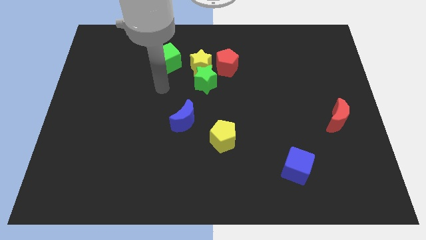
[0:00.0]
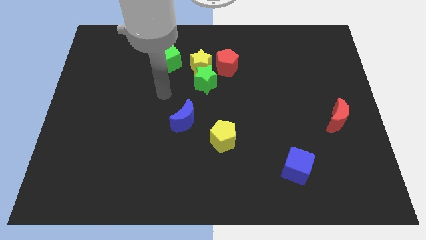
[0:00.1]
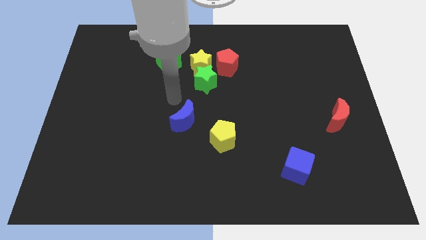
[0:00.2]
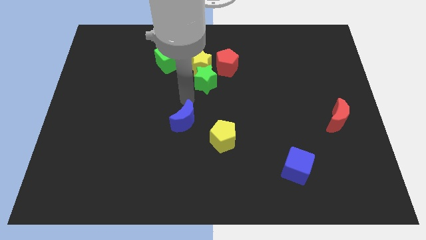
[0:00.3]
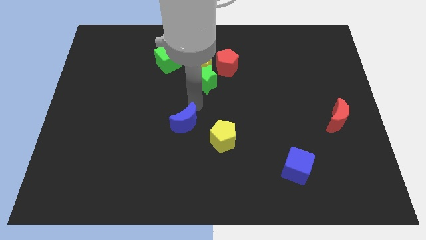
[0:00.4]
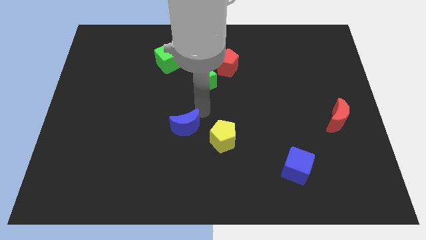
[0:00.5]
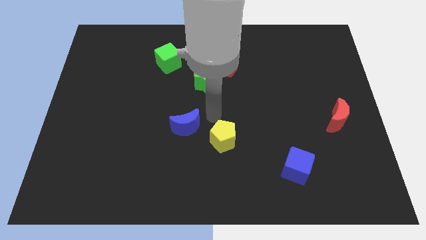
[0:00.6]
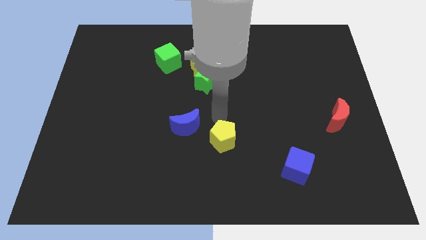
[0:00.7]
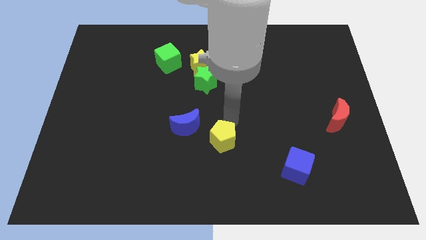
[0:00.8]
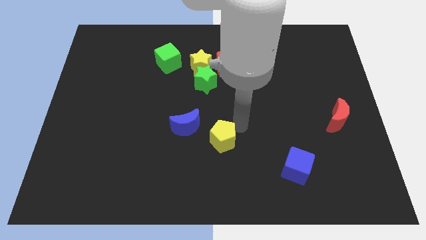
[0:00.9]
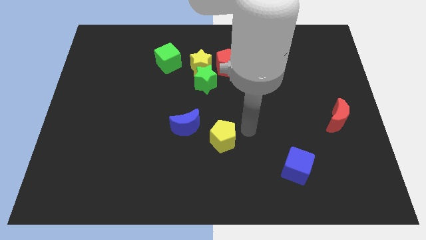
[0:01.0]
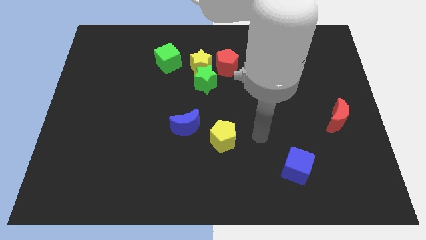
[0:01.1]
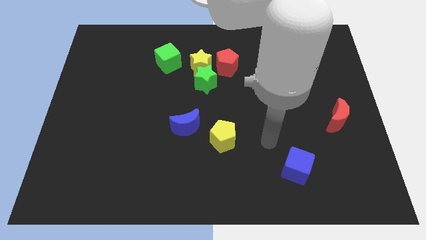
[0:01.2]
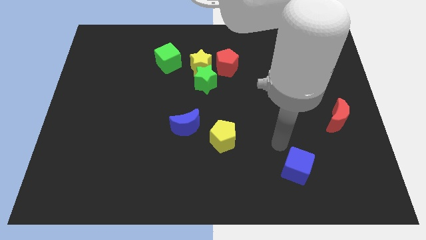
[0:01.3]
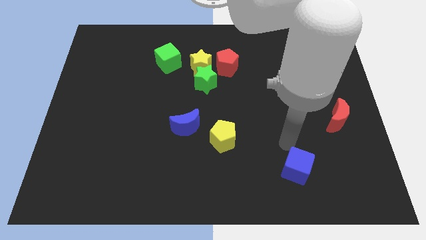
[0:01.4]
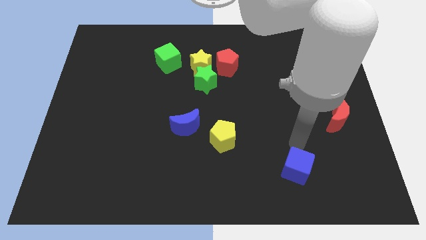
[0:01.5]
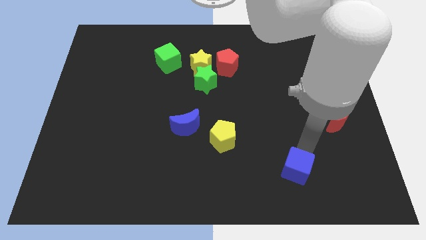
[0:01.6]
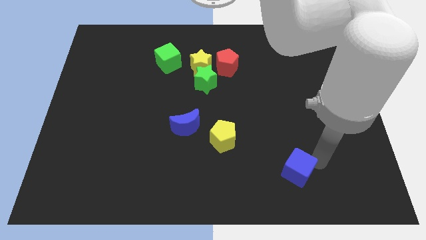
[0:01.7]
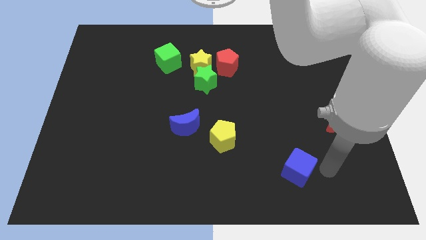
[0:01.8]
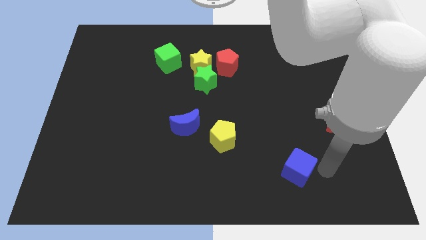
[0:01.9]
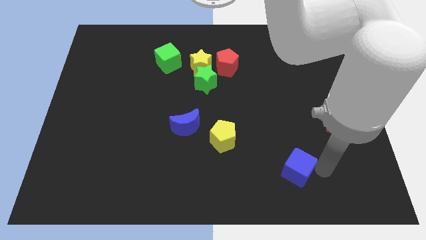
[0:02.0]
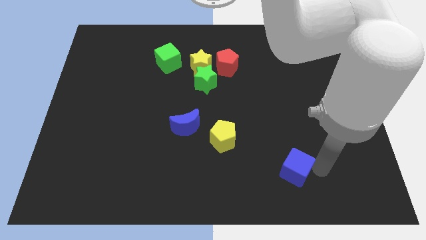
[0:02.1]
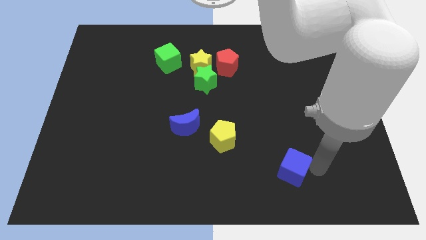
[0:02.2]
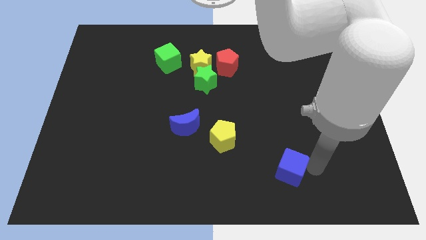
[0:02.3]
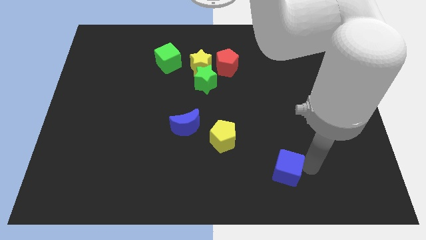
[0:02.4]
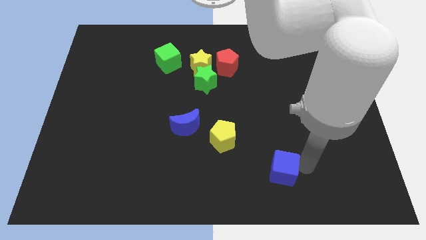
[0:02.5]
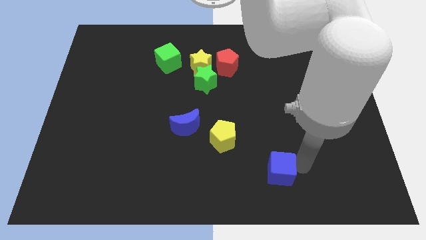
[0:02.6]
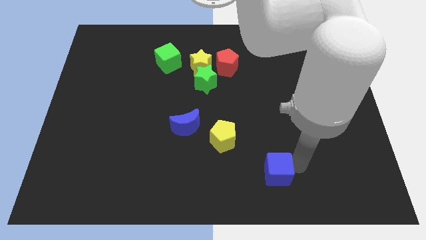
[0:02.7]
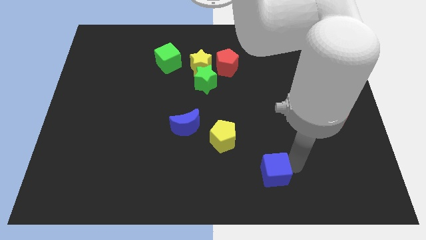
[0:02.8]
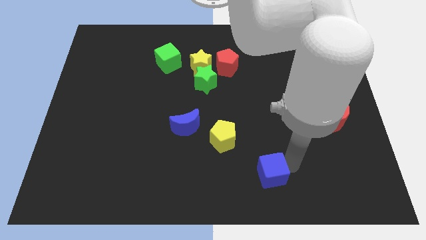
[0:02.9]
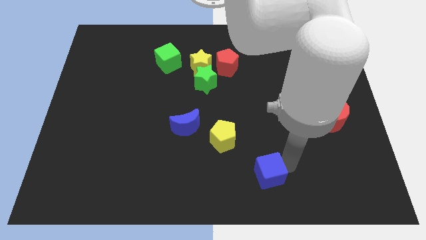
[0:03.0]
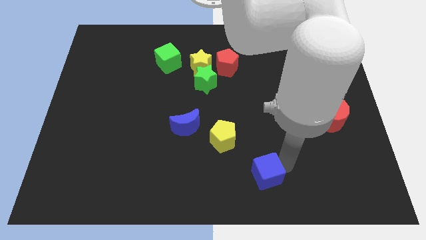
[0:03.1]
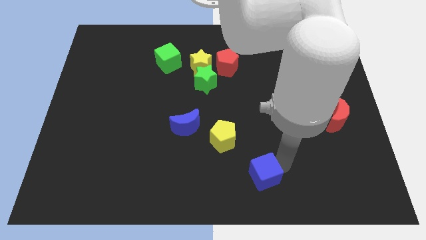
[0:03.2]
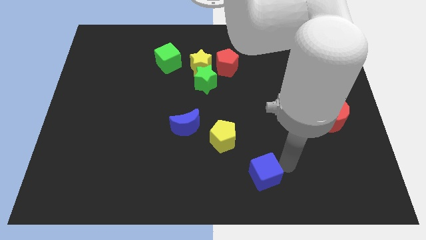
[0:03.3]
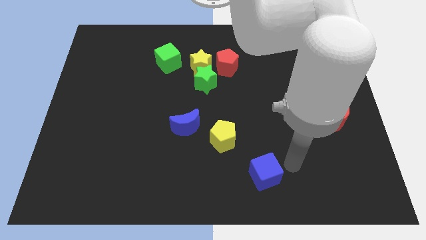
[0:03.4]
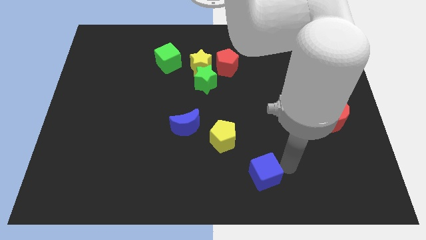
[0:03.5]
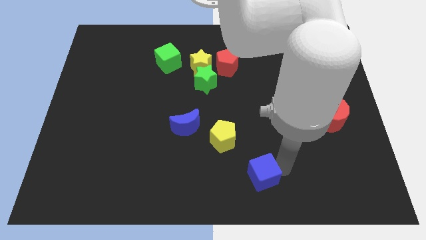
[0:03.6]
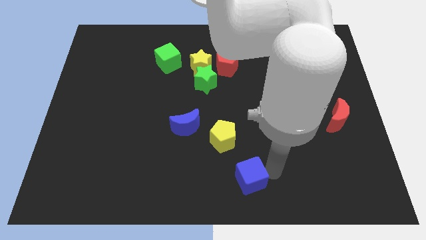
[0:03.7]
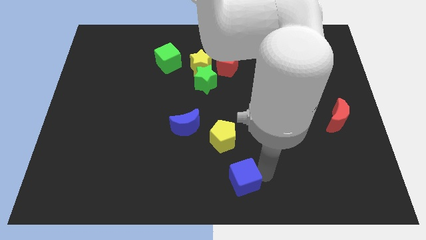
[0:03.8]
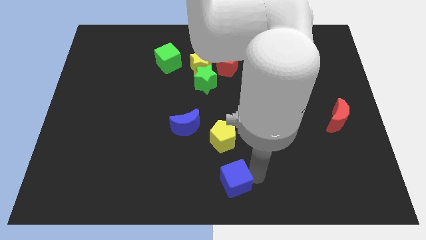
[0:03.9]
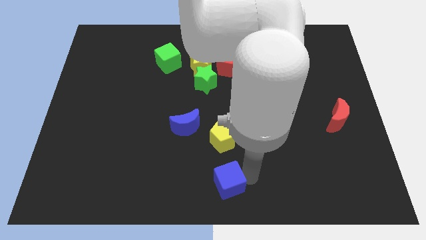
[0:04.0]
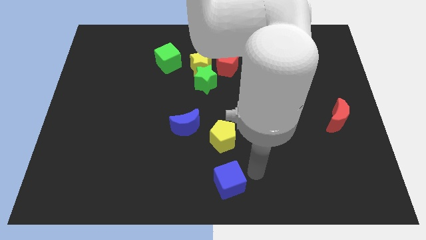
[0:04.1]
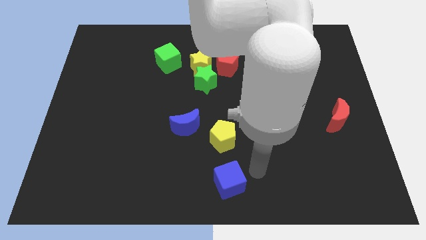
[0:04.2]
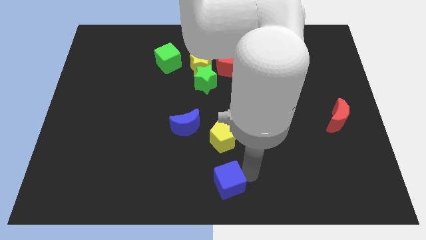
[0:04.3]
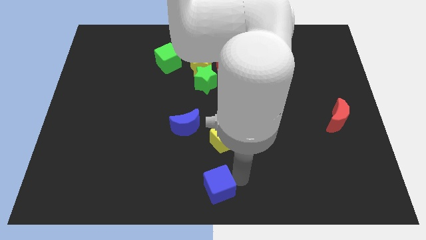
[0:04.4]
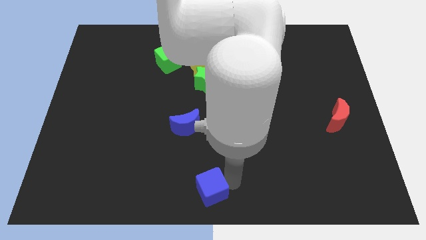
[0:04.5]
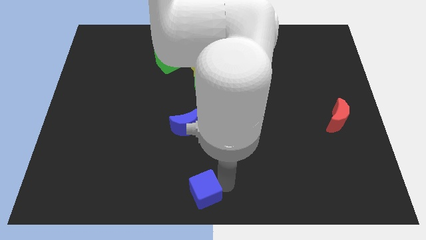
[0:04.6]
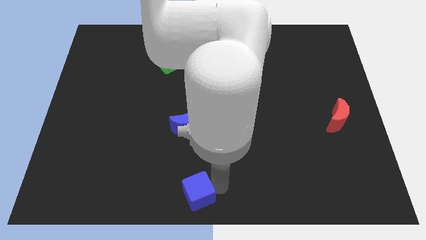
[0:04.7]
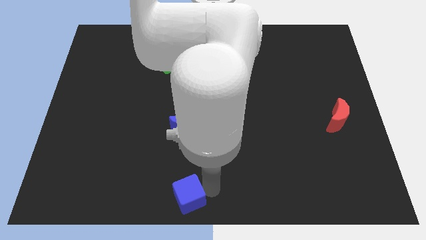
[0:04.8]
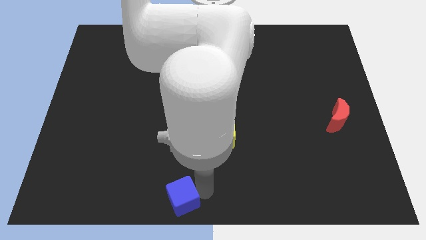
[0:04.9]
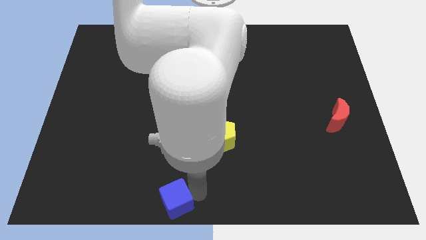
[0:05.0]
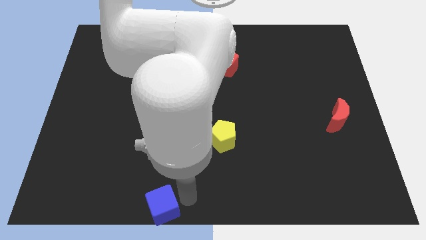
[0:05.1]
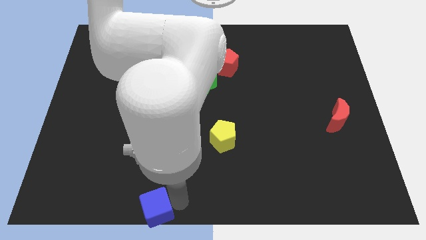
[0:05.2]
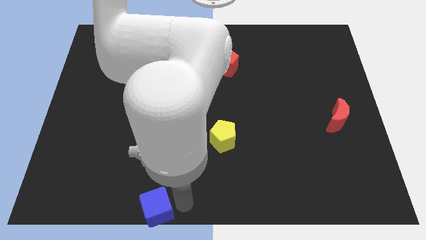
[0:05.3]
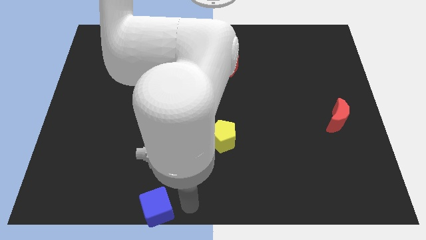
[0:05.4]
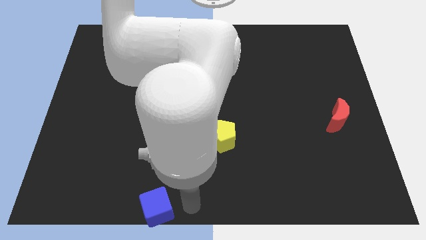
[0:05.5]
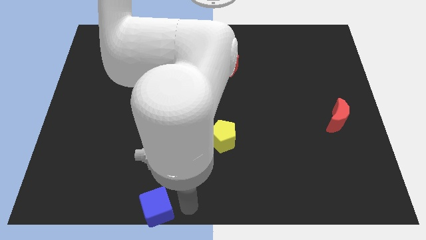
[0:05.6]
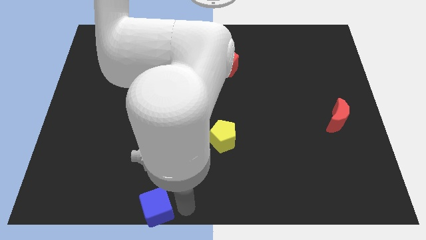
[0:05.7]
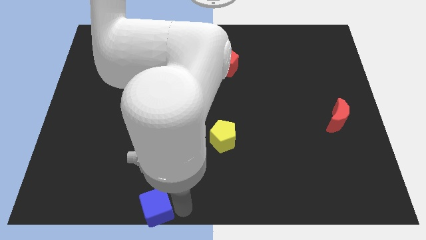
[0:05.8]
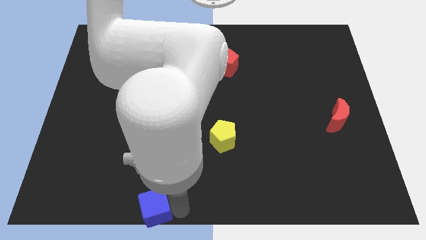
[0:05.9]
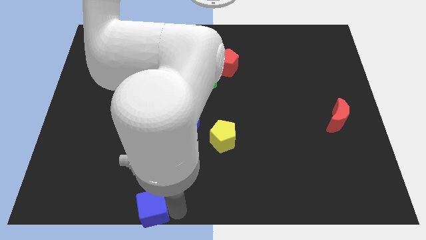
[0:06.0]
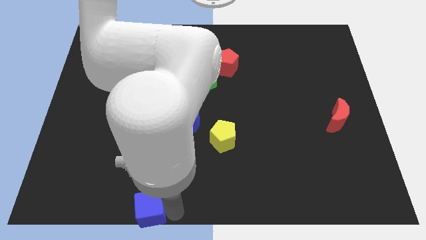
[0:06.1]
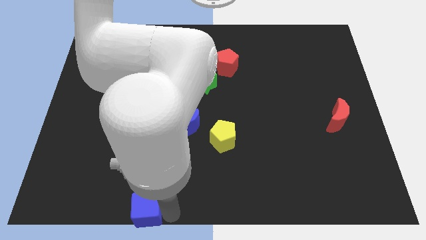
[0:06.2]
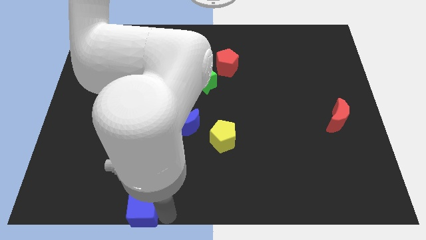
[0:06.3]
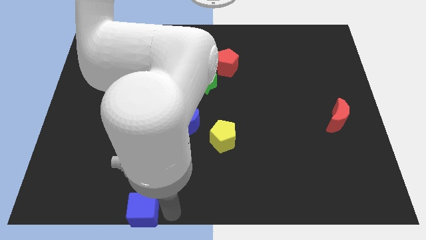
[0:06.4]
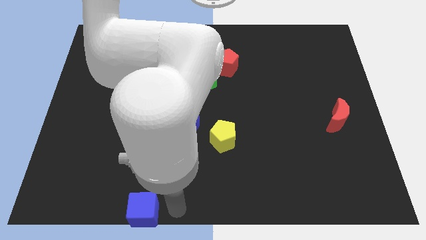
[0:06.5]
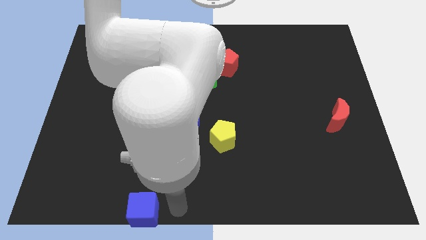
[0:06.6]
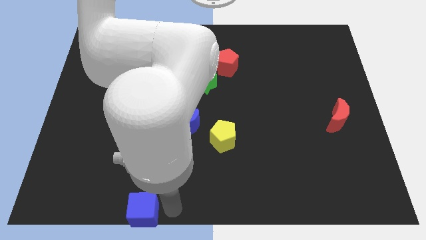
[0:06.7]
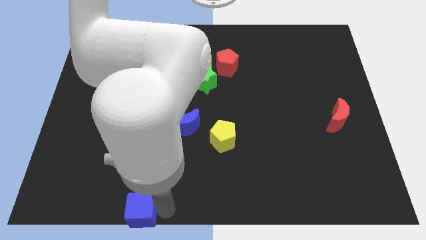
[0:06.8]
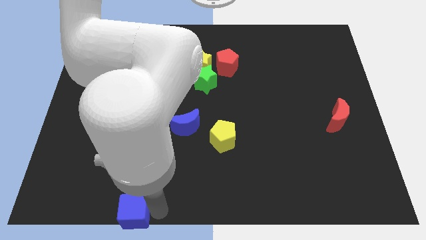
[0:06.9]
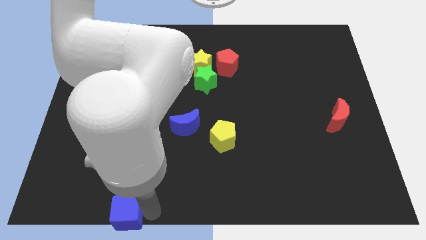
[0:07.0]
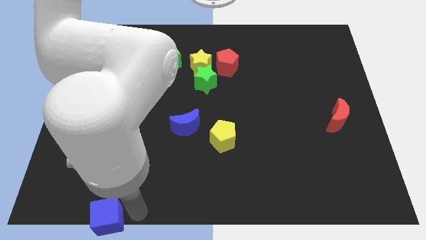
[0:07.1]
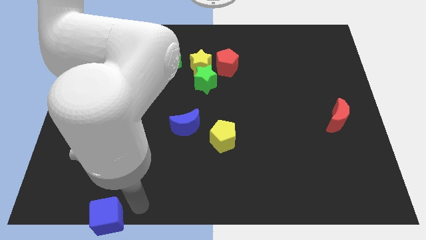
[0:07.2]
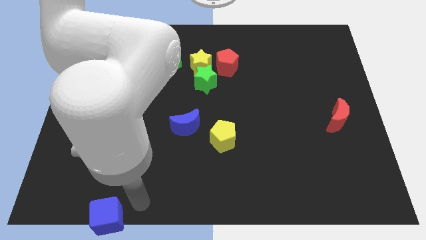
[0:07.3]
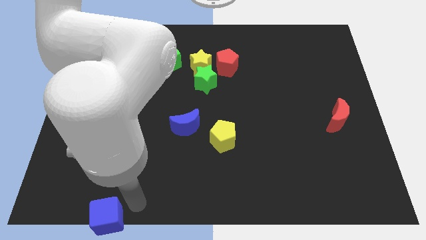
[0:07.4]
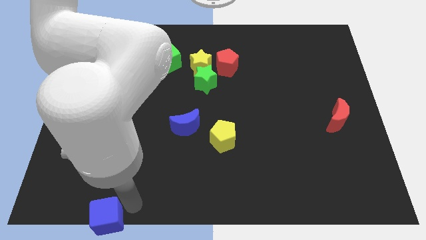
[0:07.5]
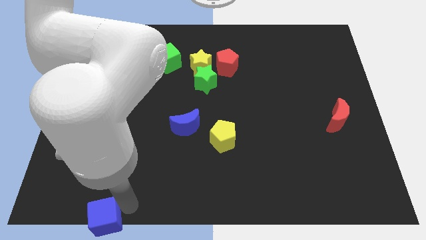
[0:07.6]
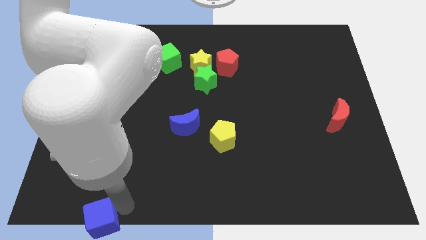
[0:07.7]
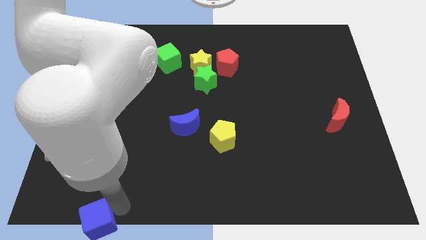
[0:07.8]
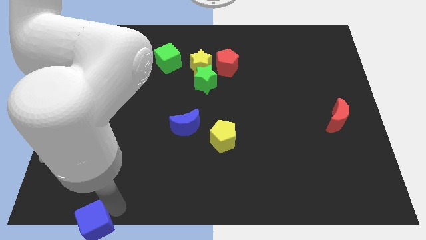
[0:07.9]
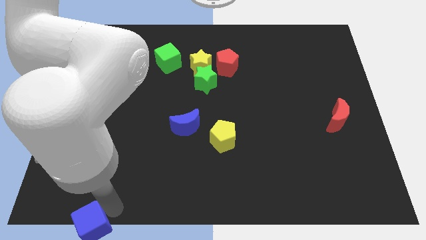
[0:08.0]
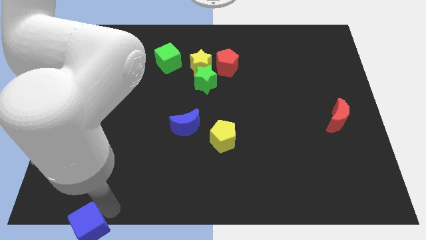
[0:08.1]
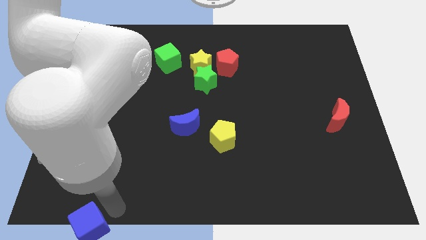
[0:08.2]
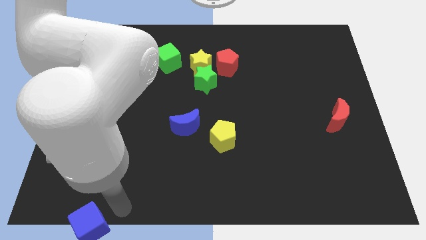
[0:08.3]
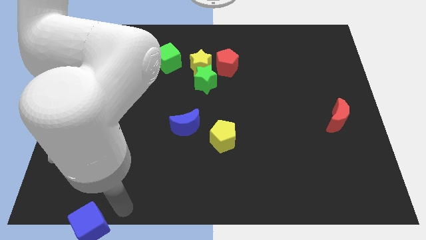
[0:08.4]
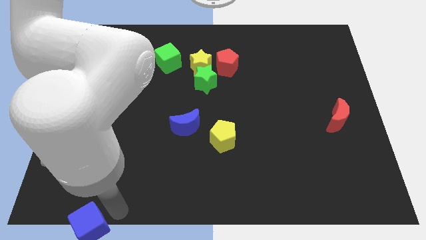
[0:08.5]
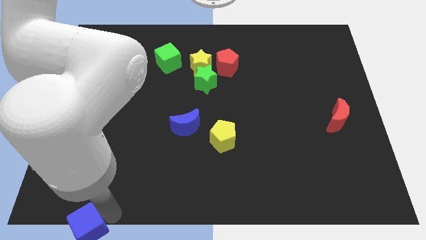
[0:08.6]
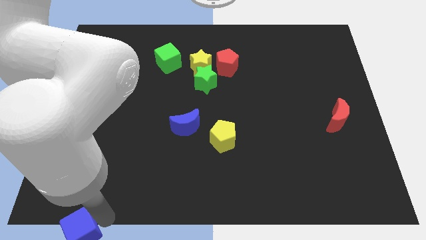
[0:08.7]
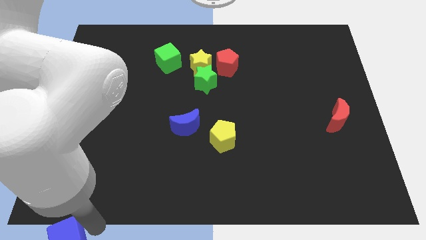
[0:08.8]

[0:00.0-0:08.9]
slide the blue cube to the bottom left corner
